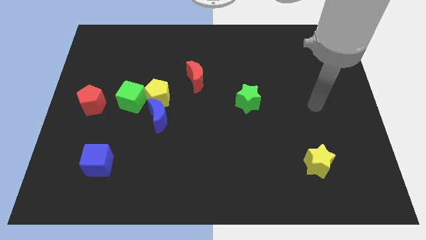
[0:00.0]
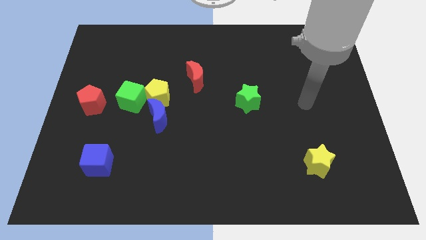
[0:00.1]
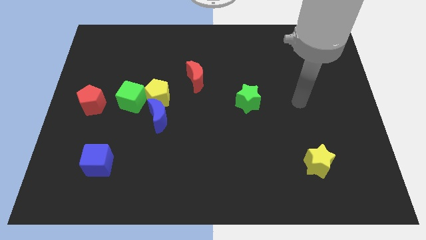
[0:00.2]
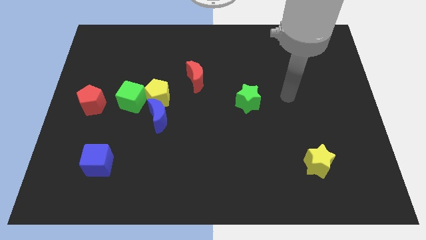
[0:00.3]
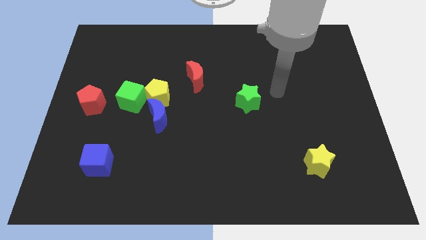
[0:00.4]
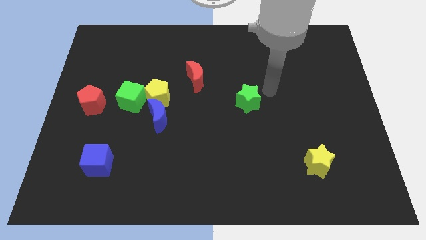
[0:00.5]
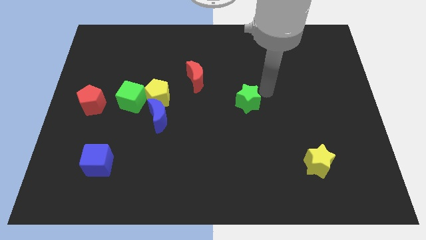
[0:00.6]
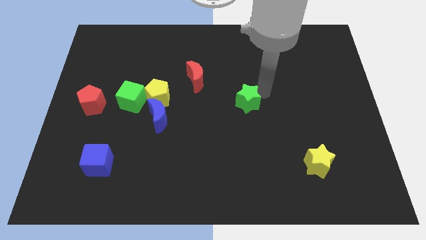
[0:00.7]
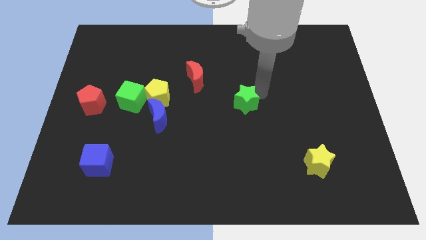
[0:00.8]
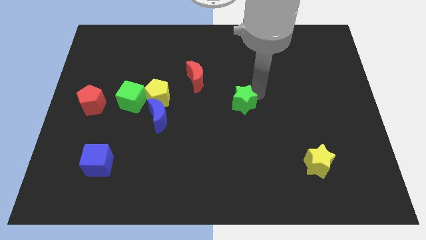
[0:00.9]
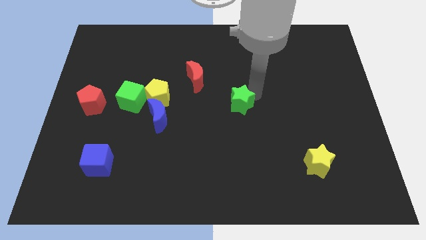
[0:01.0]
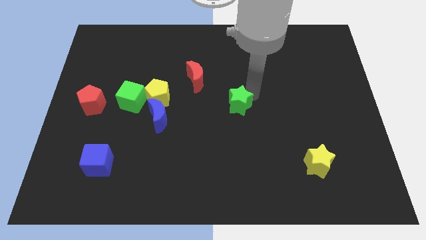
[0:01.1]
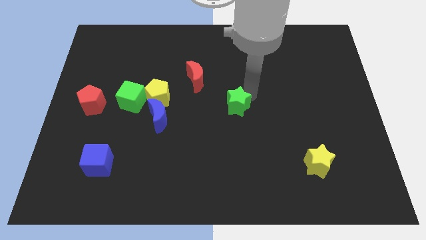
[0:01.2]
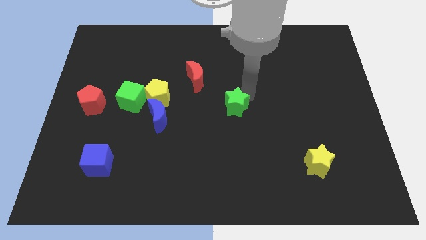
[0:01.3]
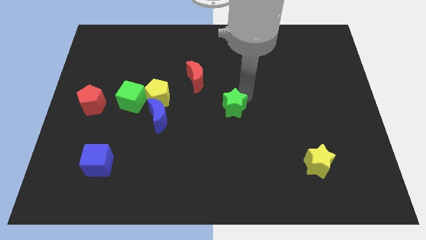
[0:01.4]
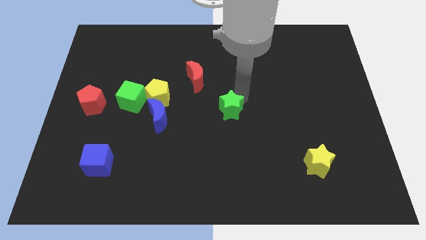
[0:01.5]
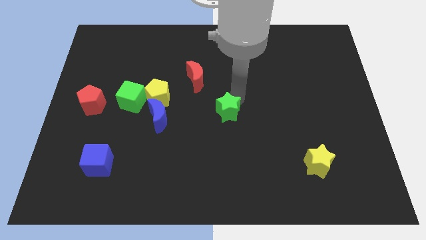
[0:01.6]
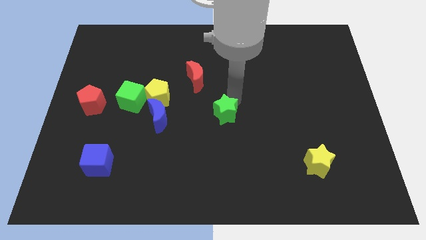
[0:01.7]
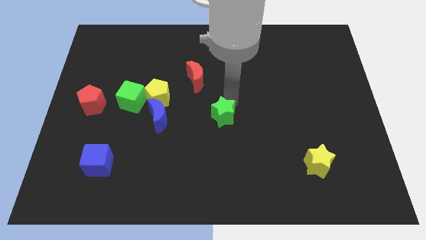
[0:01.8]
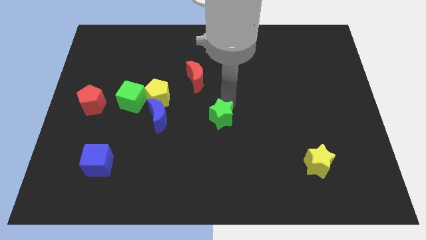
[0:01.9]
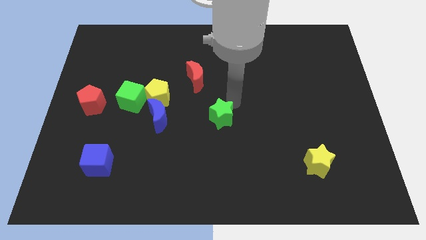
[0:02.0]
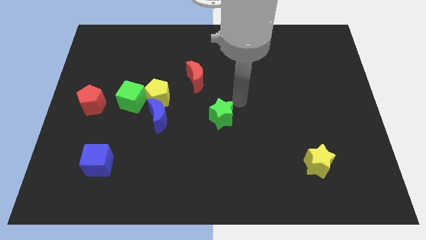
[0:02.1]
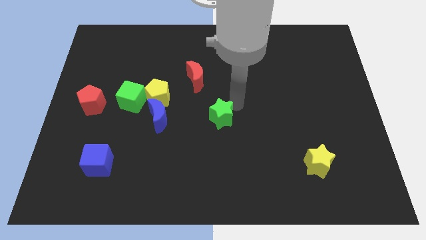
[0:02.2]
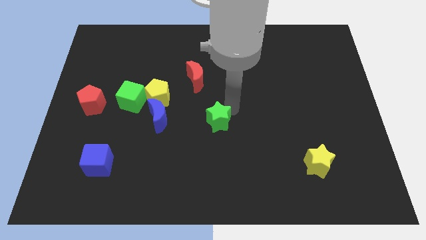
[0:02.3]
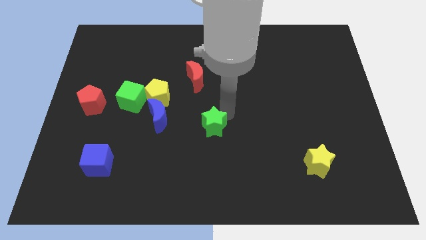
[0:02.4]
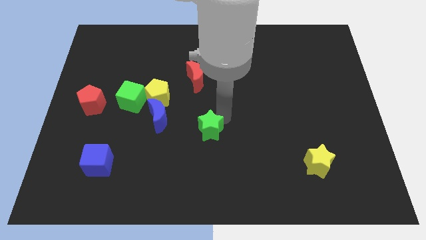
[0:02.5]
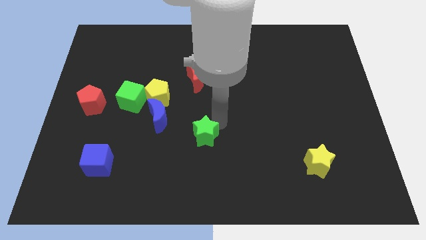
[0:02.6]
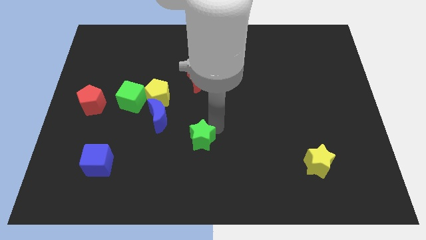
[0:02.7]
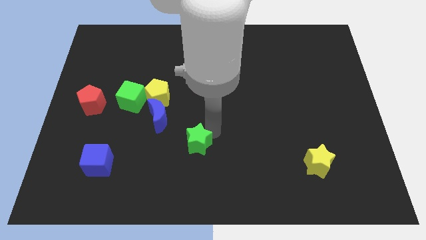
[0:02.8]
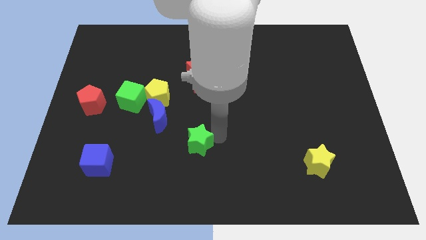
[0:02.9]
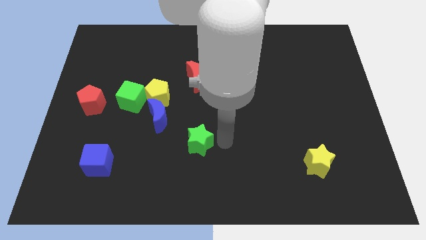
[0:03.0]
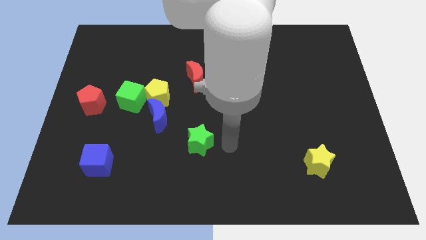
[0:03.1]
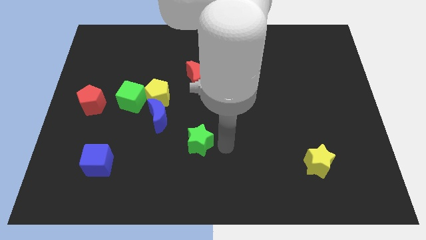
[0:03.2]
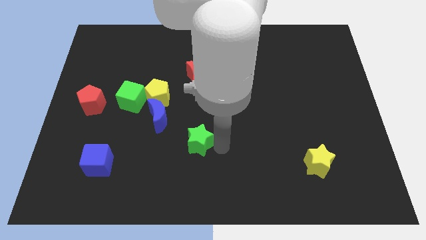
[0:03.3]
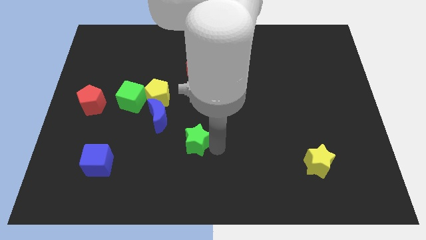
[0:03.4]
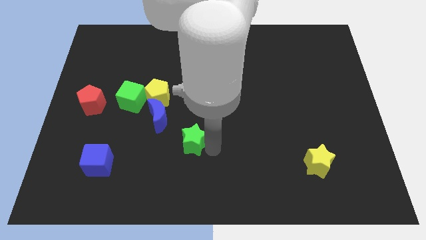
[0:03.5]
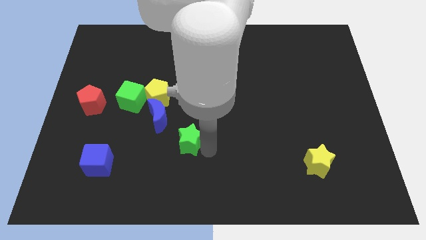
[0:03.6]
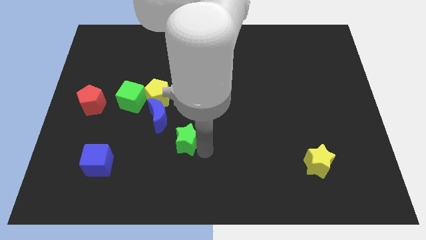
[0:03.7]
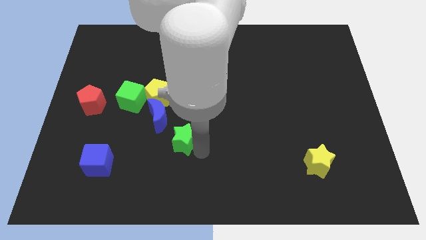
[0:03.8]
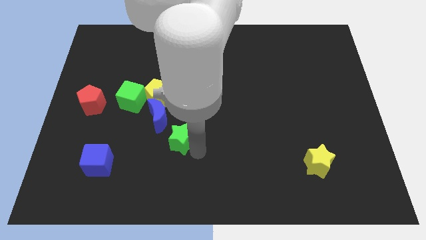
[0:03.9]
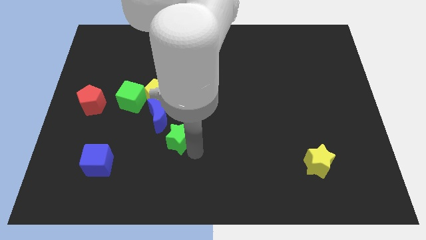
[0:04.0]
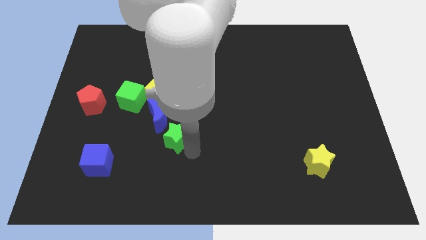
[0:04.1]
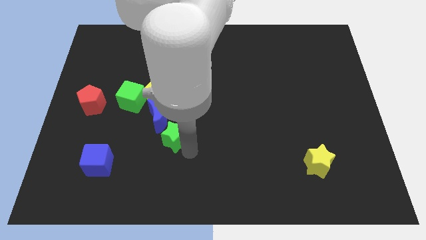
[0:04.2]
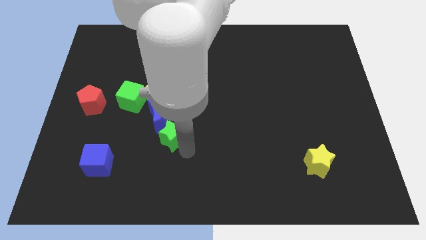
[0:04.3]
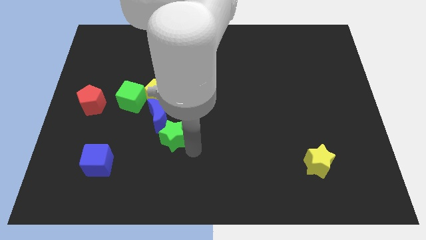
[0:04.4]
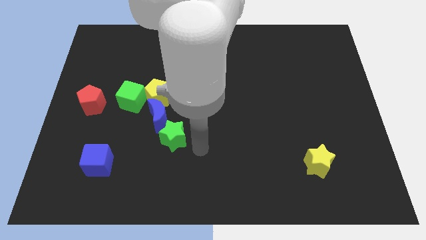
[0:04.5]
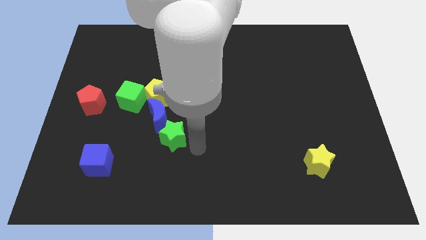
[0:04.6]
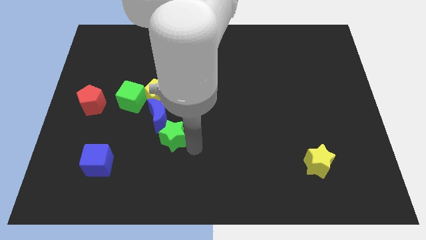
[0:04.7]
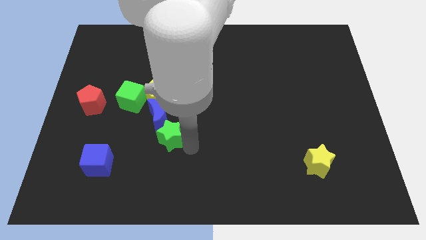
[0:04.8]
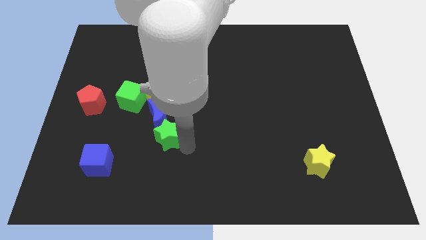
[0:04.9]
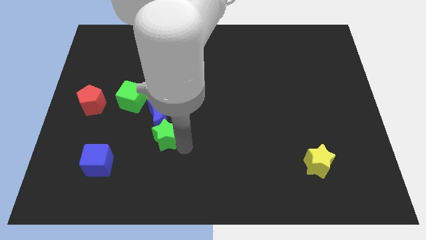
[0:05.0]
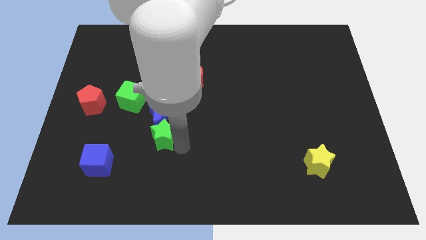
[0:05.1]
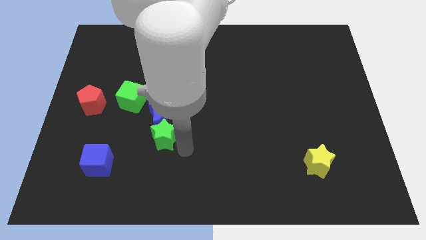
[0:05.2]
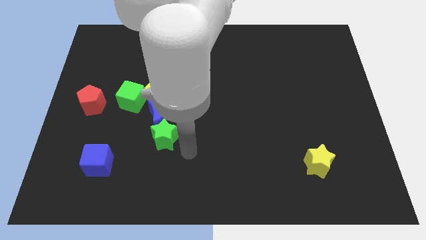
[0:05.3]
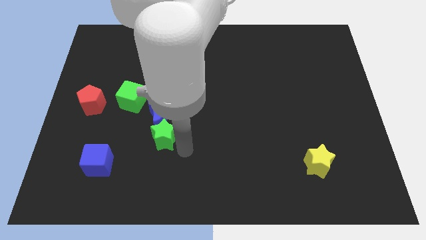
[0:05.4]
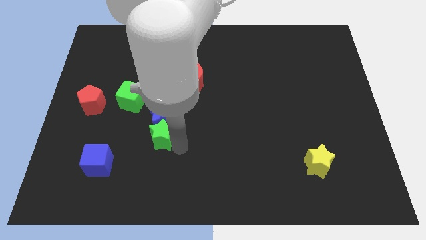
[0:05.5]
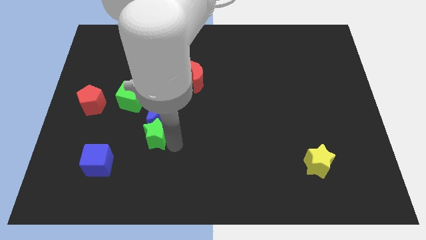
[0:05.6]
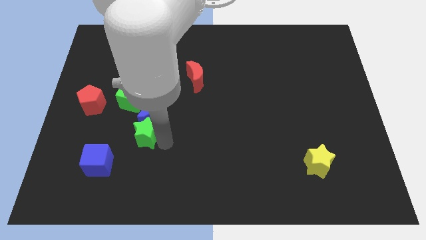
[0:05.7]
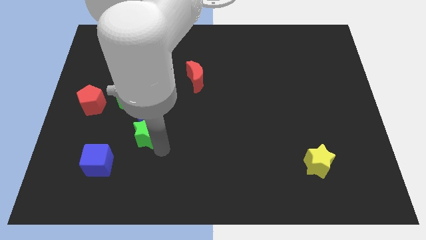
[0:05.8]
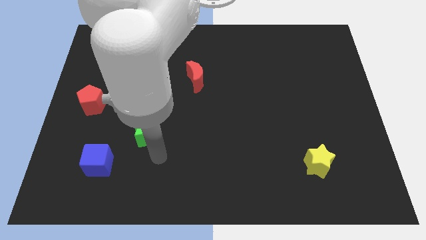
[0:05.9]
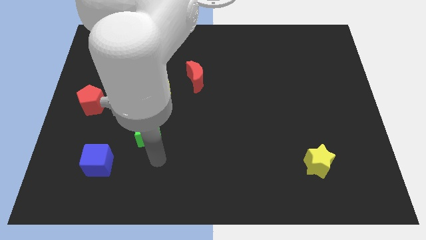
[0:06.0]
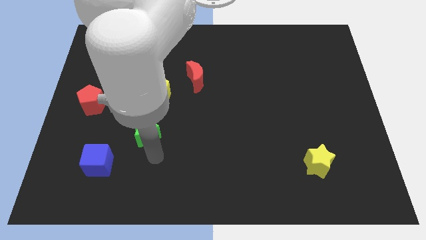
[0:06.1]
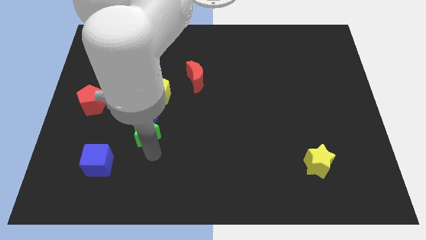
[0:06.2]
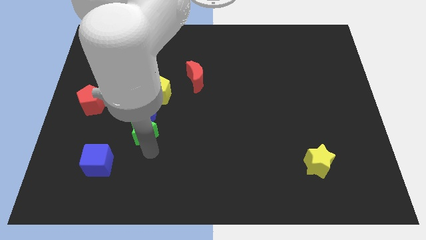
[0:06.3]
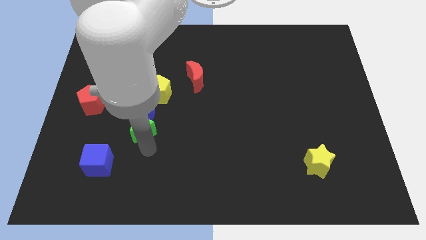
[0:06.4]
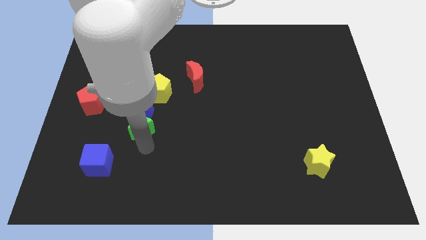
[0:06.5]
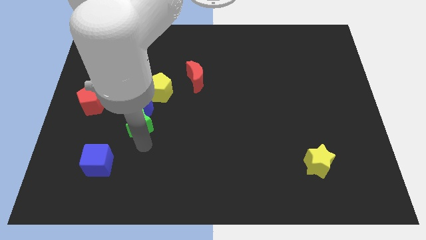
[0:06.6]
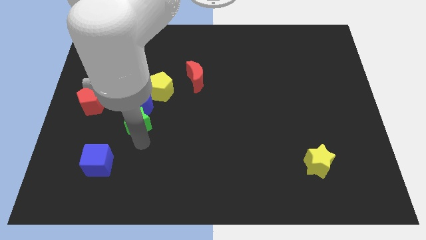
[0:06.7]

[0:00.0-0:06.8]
move the green star to the bottom left side of the yellow pentagon

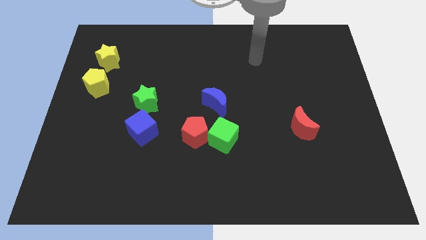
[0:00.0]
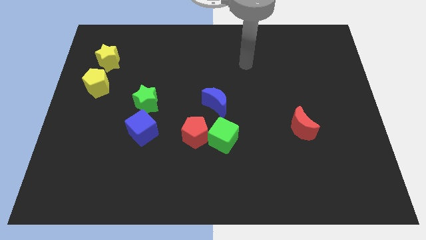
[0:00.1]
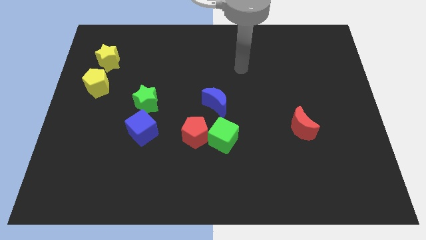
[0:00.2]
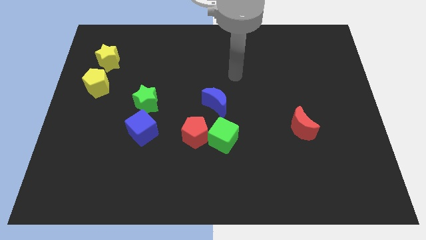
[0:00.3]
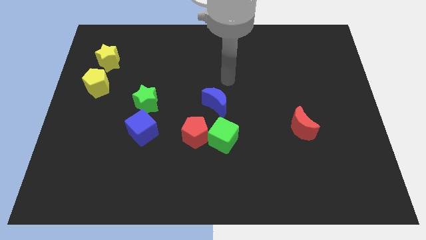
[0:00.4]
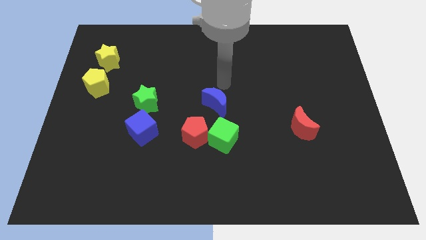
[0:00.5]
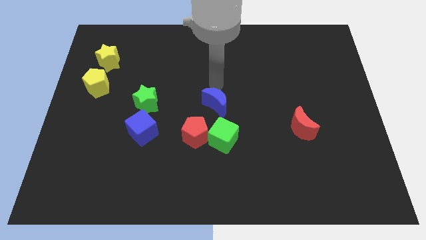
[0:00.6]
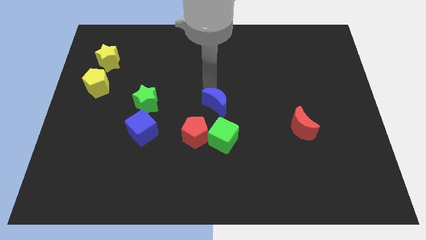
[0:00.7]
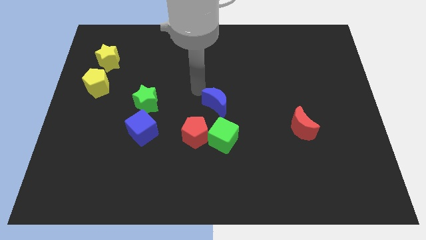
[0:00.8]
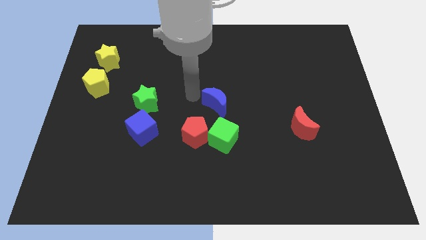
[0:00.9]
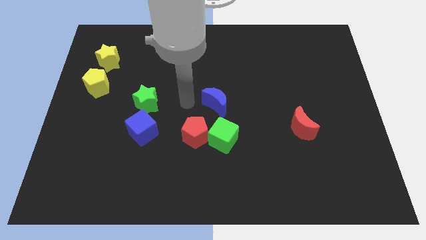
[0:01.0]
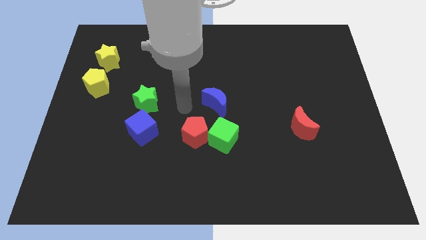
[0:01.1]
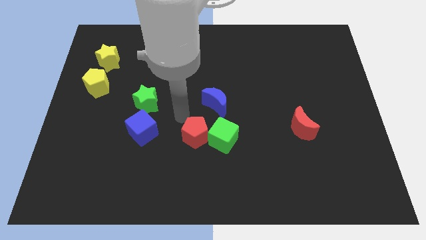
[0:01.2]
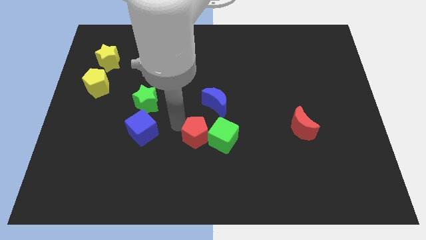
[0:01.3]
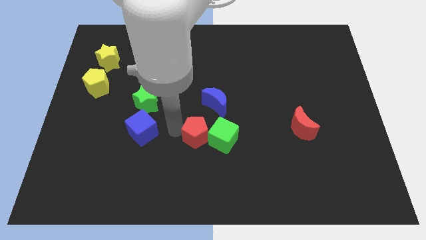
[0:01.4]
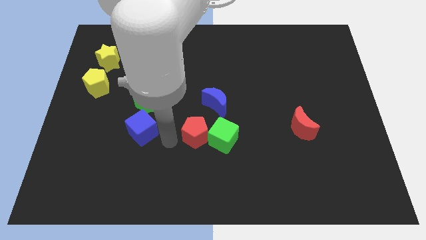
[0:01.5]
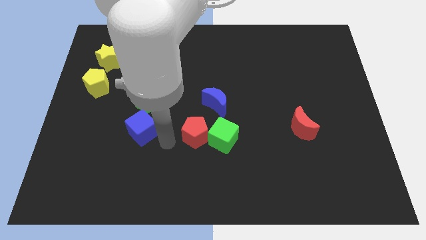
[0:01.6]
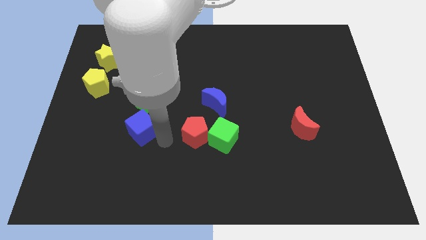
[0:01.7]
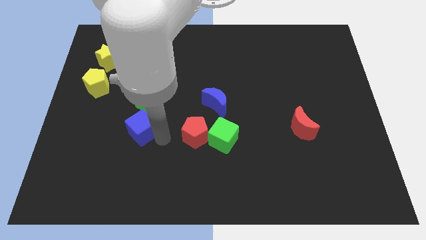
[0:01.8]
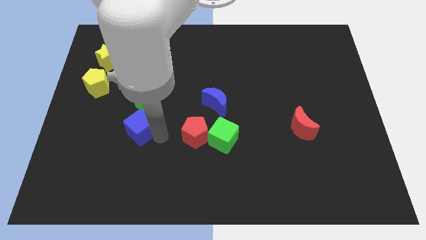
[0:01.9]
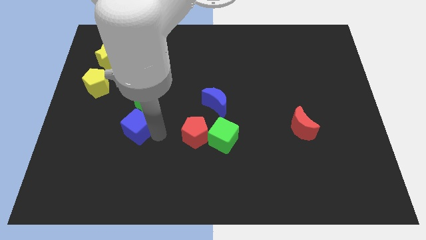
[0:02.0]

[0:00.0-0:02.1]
push the blue cube to the bottom left side of the green star
